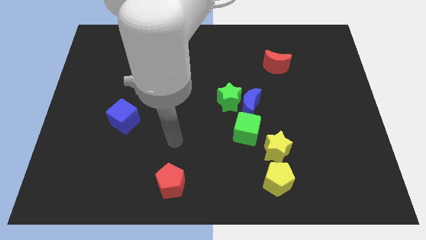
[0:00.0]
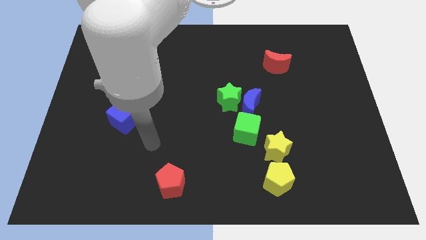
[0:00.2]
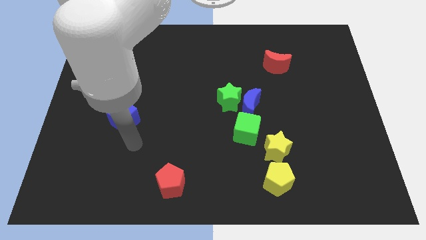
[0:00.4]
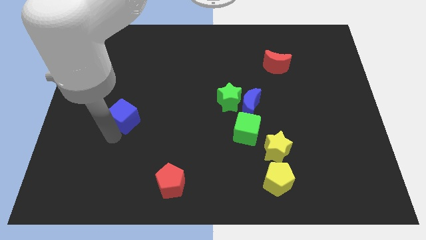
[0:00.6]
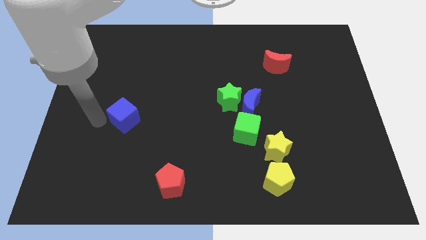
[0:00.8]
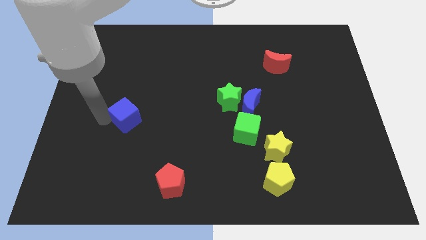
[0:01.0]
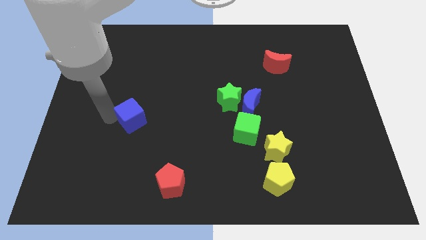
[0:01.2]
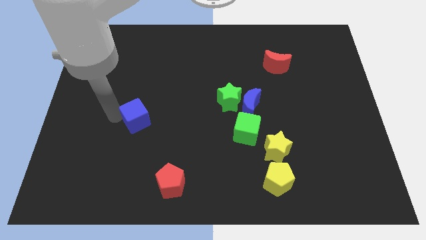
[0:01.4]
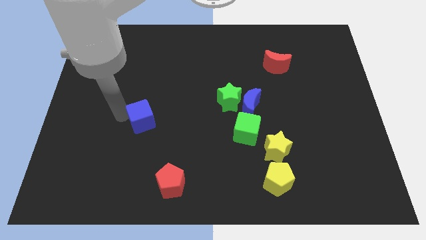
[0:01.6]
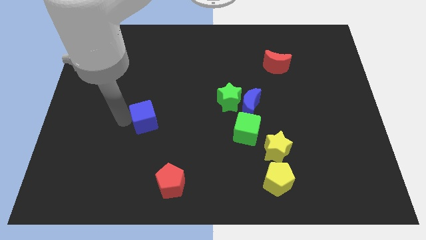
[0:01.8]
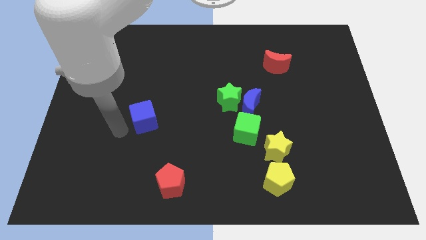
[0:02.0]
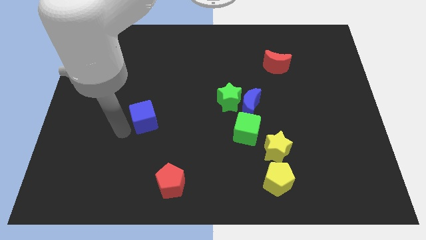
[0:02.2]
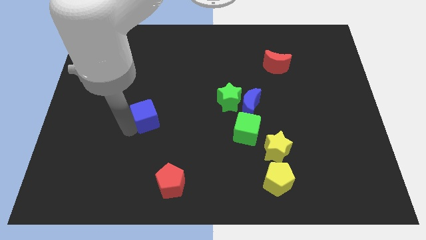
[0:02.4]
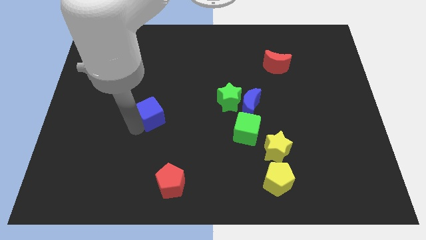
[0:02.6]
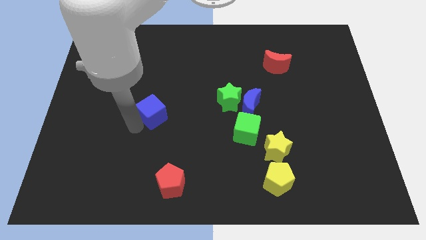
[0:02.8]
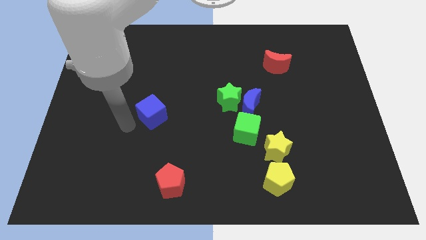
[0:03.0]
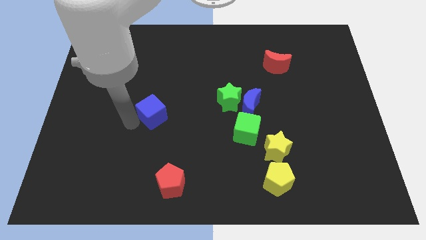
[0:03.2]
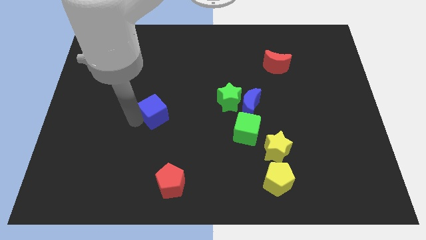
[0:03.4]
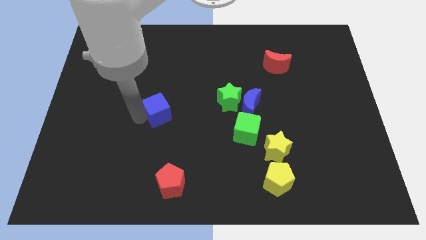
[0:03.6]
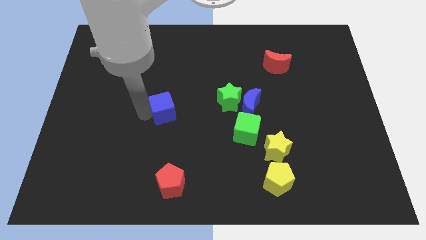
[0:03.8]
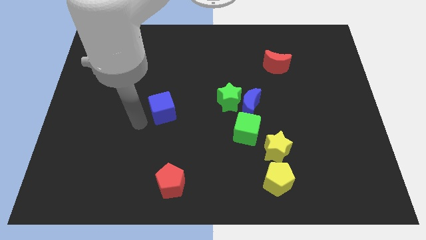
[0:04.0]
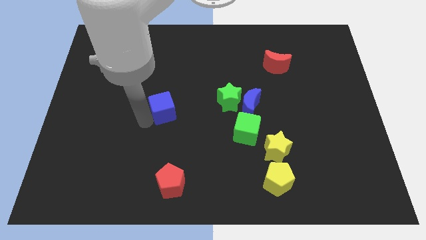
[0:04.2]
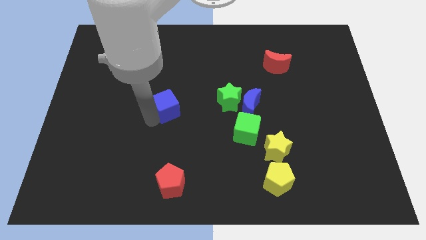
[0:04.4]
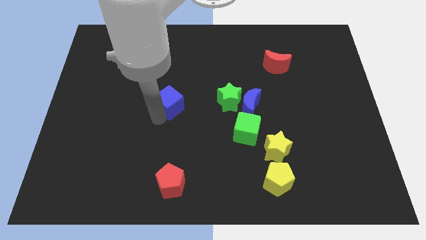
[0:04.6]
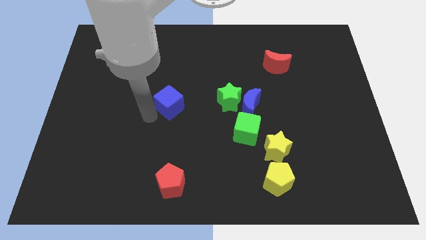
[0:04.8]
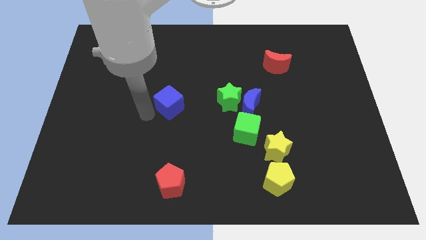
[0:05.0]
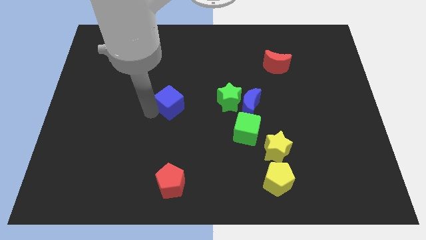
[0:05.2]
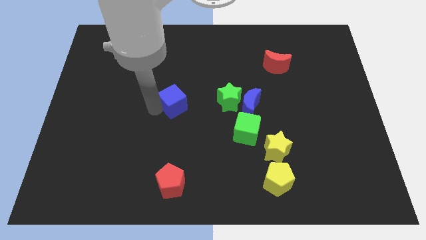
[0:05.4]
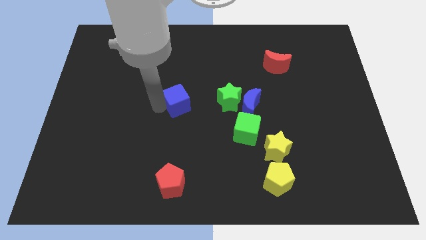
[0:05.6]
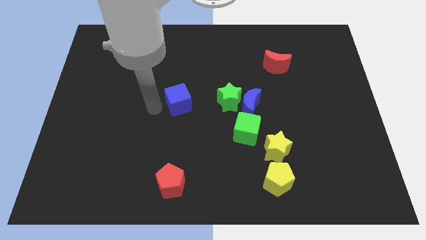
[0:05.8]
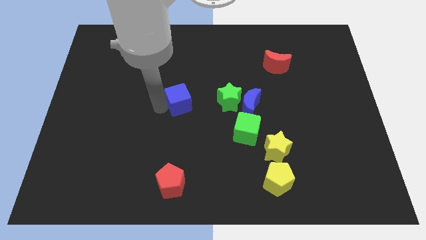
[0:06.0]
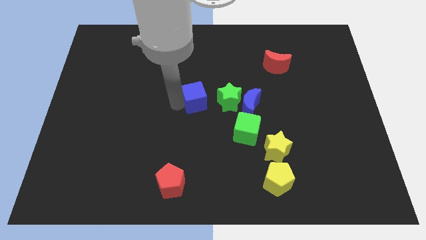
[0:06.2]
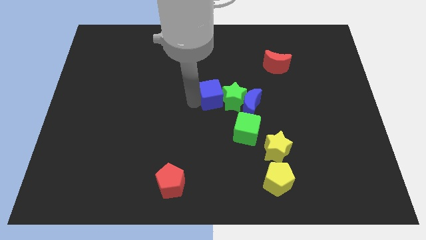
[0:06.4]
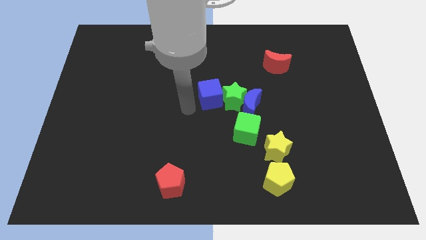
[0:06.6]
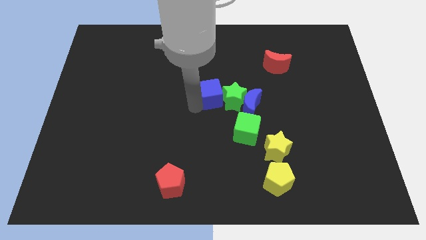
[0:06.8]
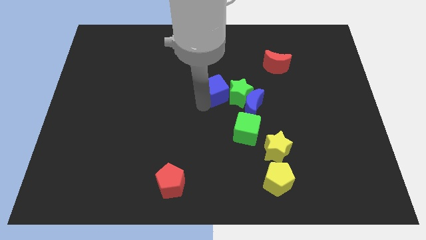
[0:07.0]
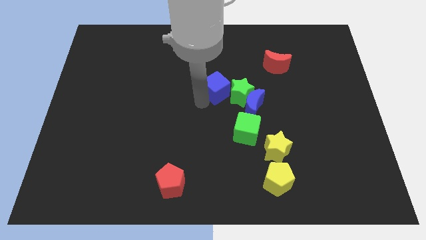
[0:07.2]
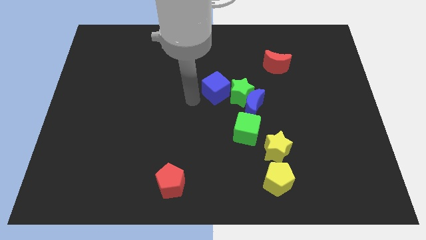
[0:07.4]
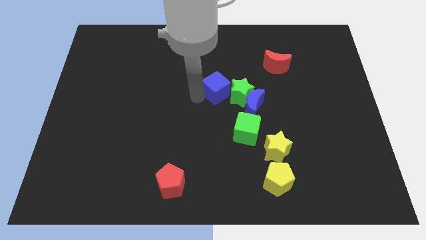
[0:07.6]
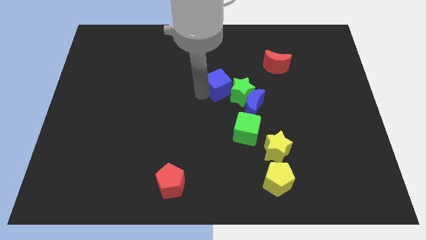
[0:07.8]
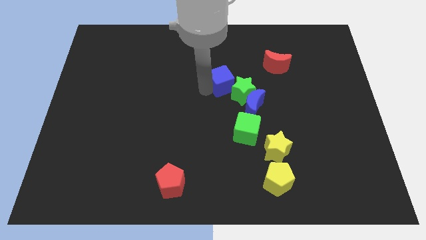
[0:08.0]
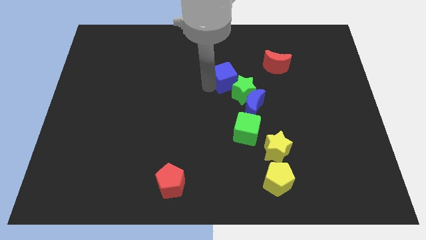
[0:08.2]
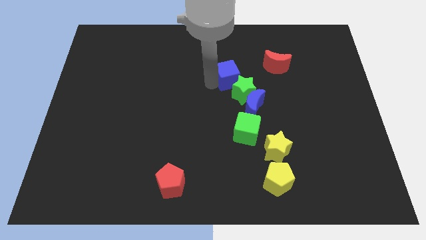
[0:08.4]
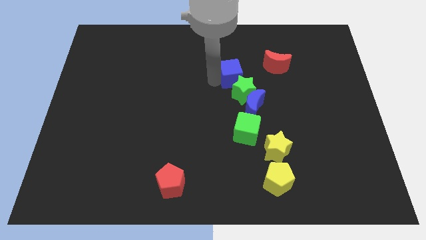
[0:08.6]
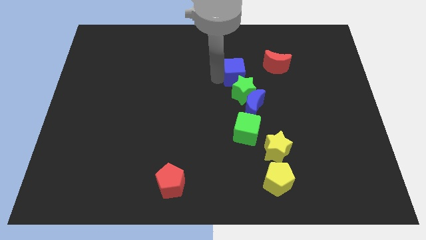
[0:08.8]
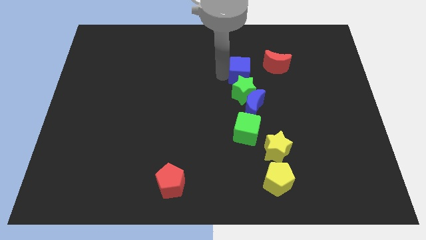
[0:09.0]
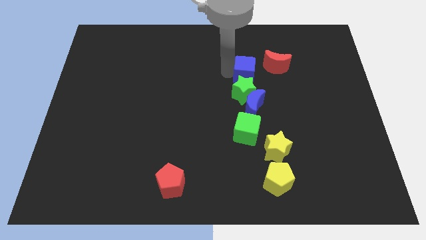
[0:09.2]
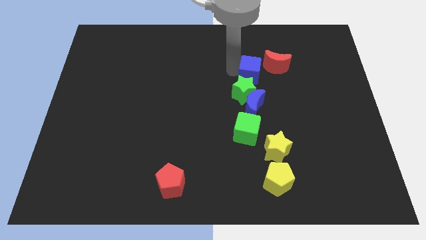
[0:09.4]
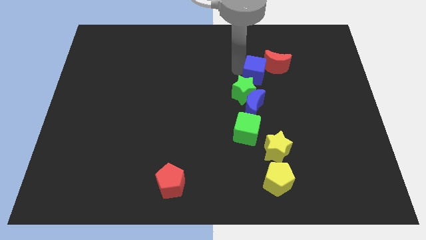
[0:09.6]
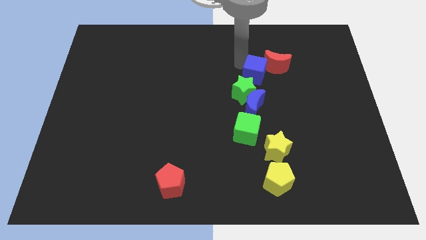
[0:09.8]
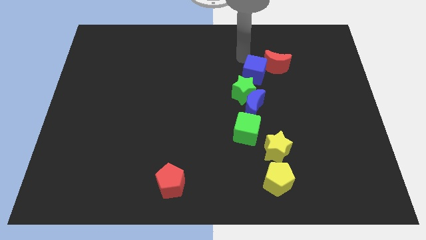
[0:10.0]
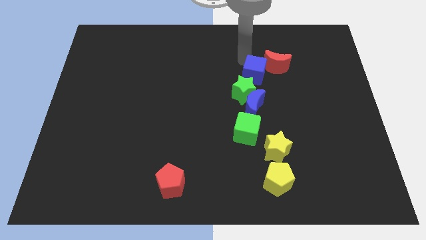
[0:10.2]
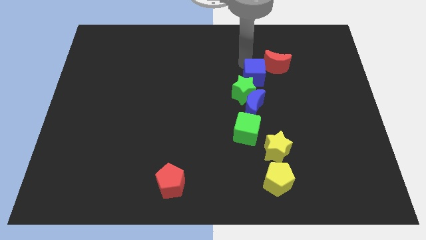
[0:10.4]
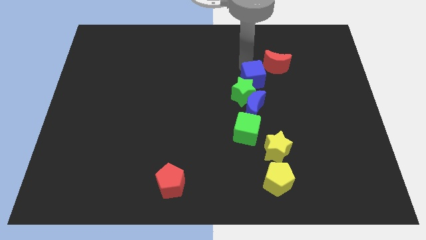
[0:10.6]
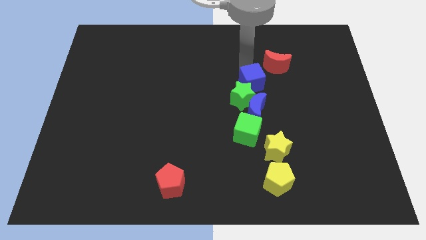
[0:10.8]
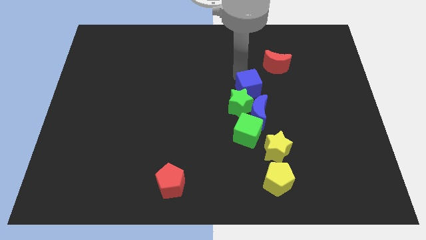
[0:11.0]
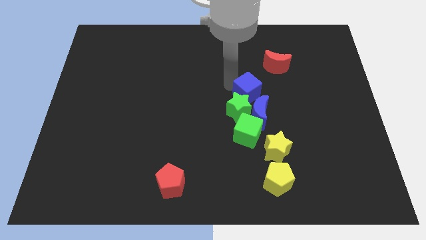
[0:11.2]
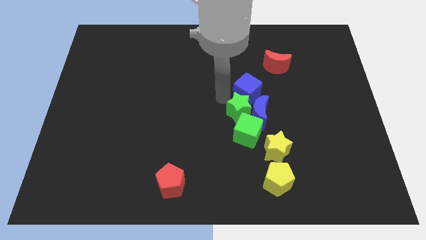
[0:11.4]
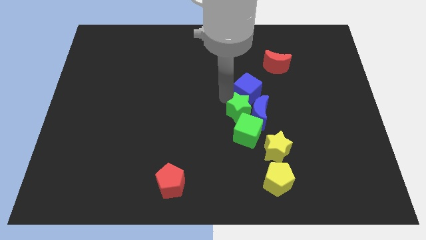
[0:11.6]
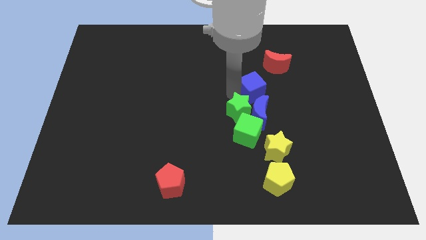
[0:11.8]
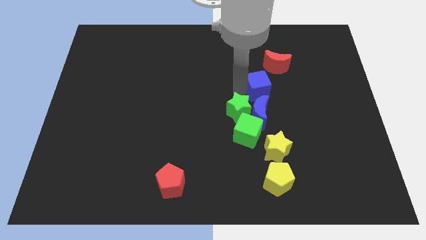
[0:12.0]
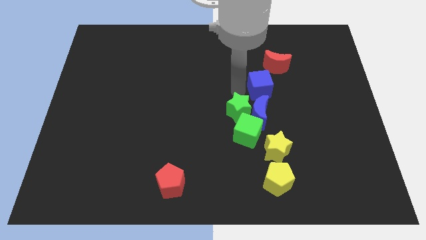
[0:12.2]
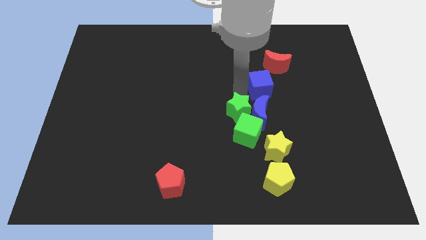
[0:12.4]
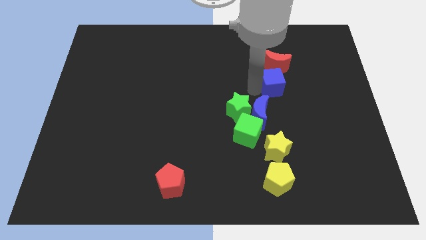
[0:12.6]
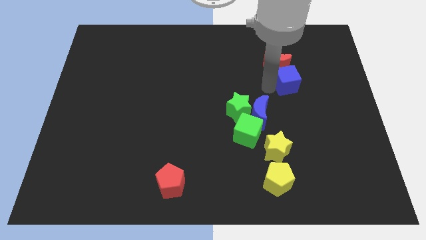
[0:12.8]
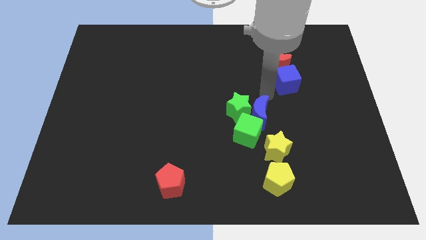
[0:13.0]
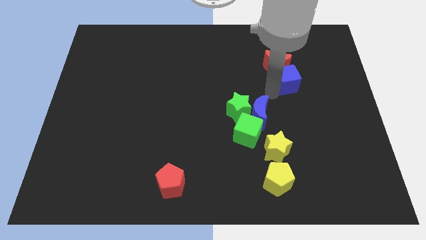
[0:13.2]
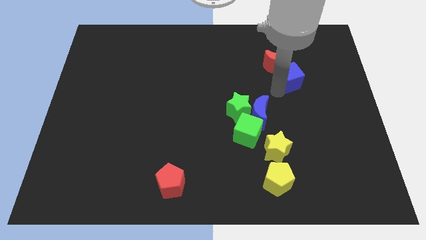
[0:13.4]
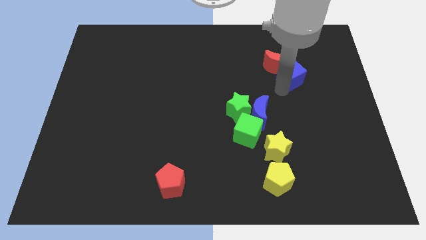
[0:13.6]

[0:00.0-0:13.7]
move the blue cube to the right of the red moon

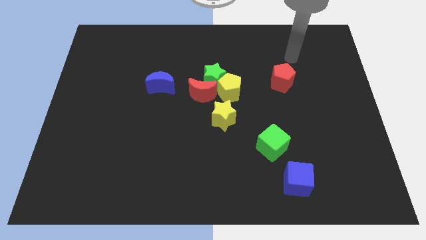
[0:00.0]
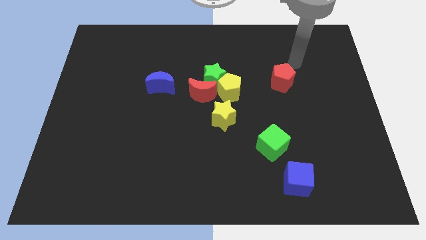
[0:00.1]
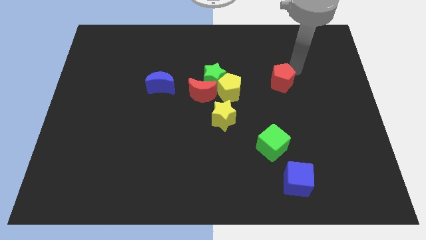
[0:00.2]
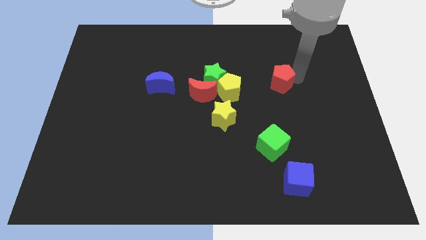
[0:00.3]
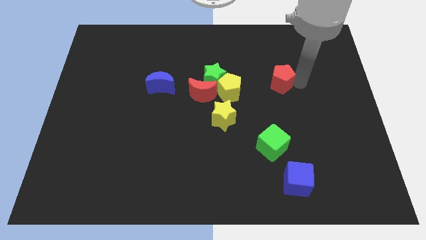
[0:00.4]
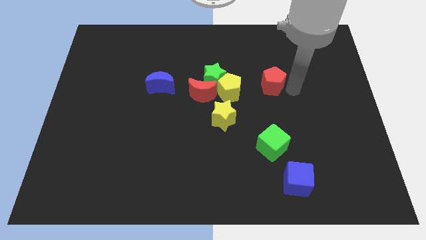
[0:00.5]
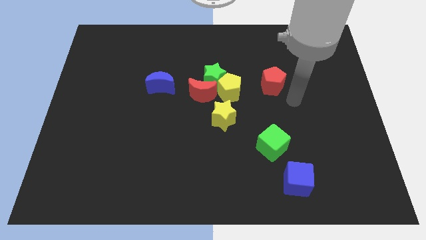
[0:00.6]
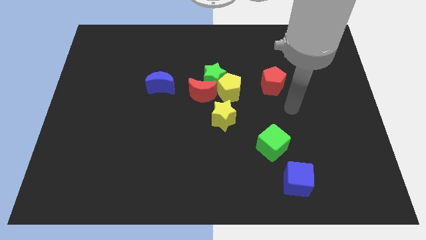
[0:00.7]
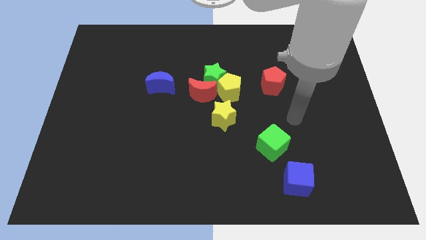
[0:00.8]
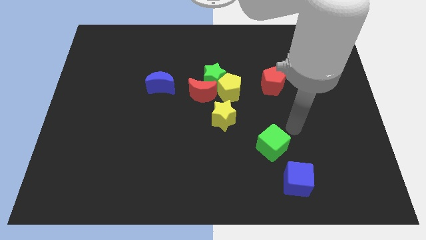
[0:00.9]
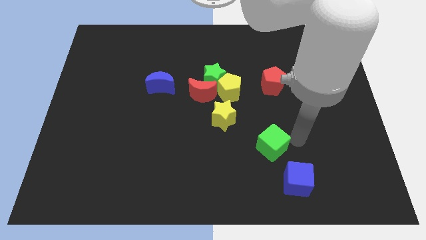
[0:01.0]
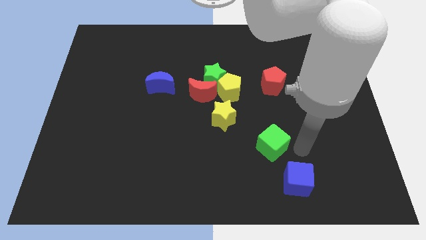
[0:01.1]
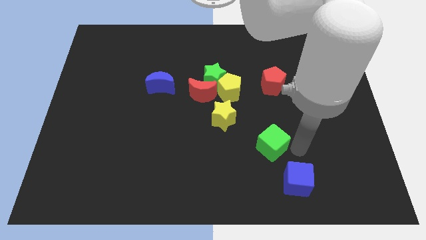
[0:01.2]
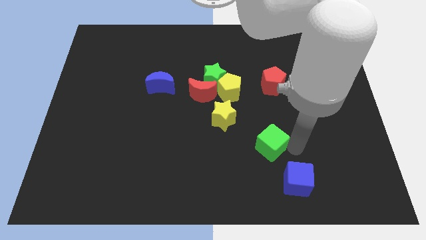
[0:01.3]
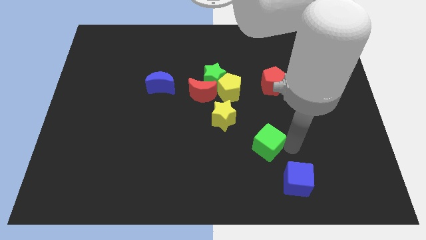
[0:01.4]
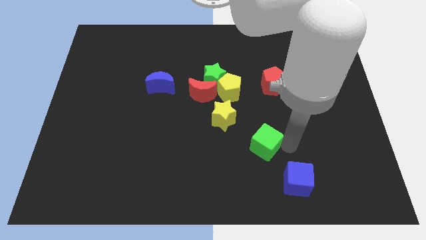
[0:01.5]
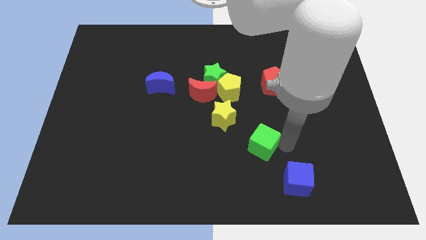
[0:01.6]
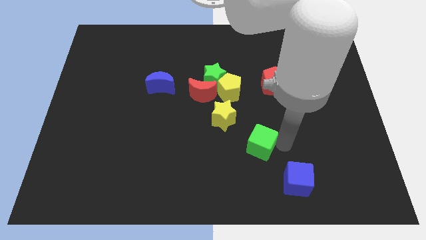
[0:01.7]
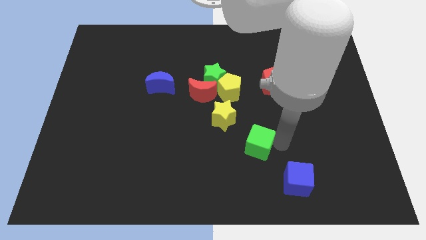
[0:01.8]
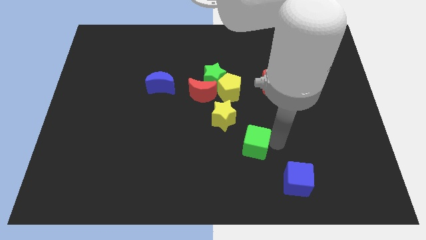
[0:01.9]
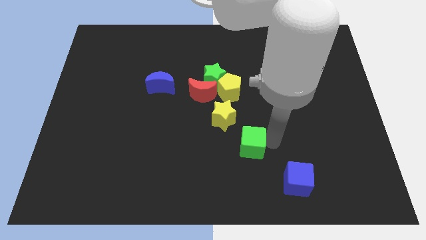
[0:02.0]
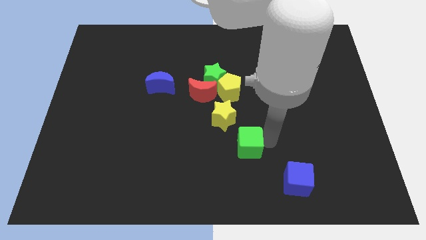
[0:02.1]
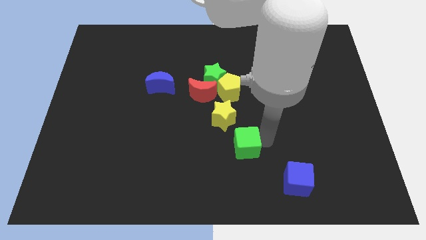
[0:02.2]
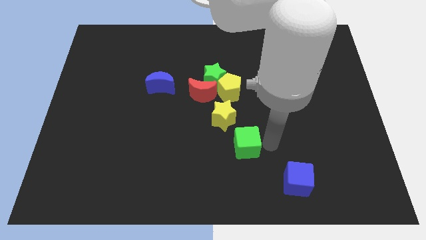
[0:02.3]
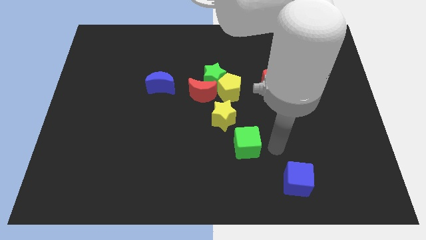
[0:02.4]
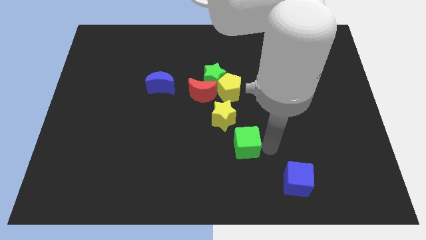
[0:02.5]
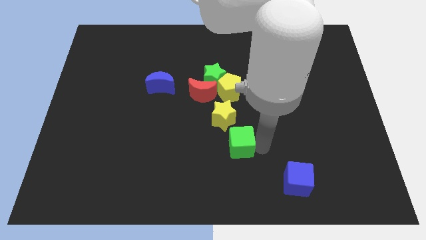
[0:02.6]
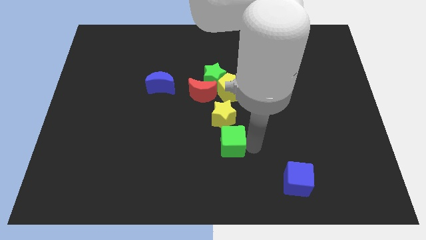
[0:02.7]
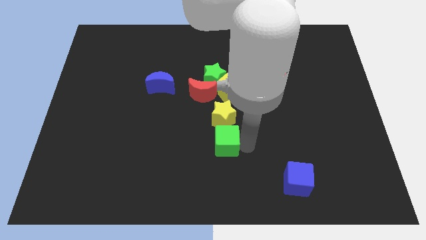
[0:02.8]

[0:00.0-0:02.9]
put the green cube diagonally down and to the left of the yellow star
